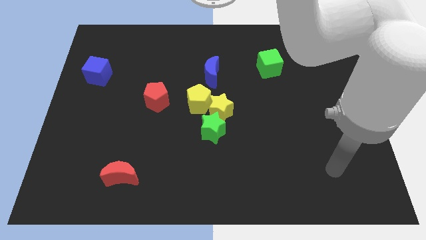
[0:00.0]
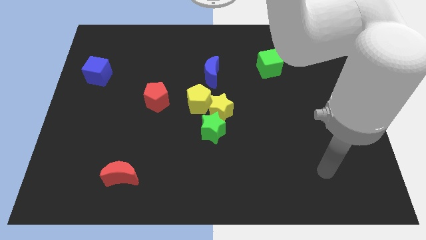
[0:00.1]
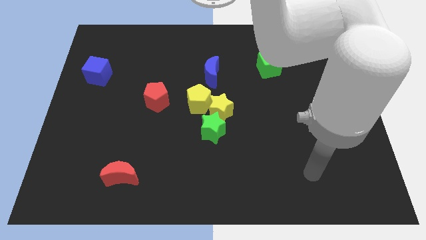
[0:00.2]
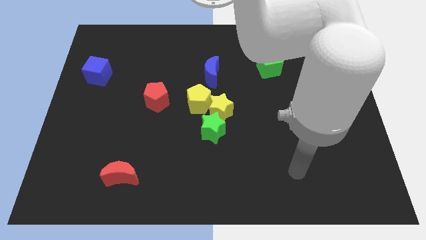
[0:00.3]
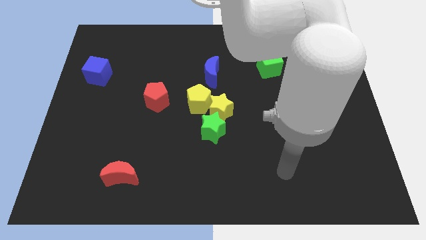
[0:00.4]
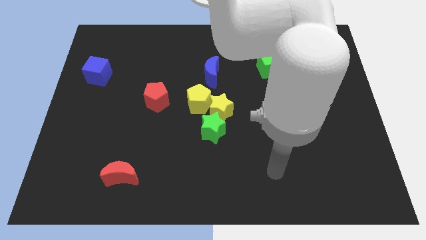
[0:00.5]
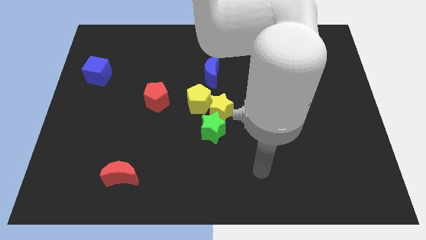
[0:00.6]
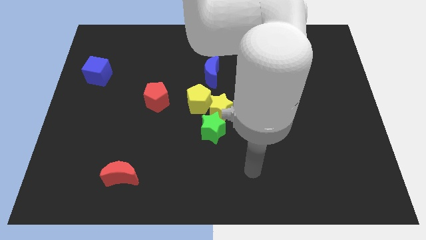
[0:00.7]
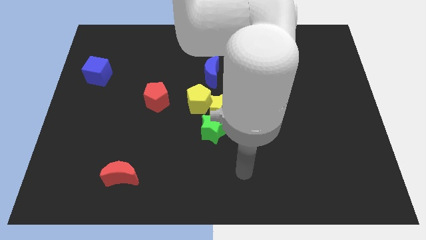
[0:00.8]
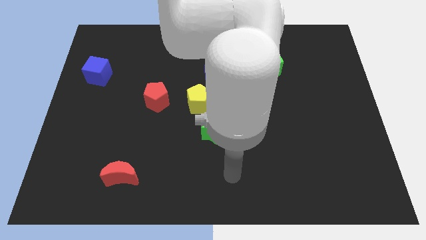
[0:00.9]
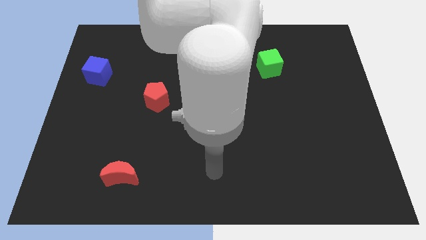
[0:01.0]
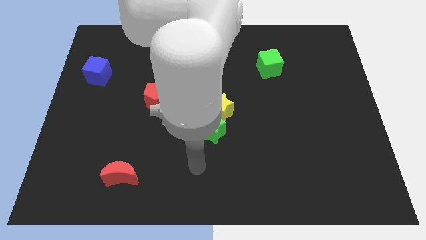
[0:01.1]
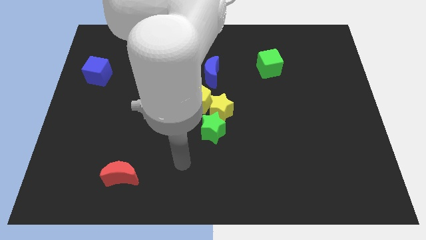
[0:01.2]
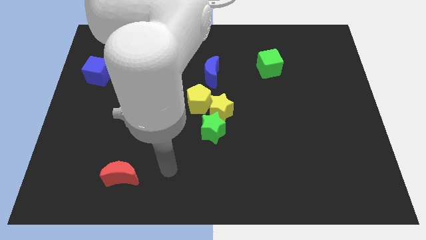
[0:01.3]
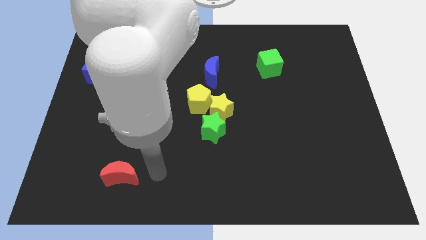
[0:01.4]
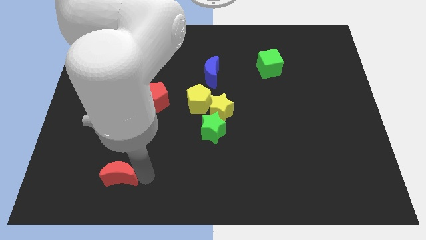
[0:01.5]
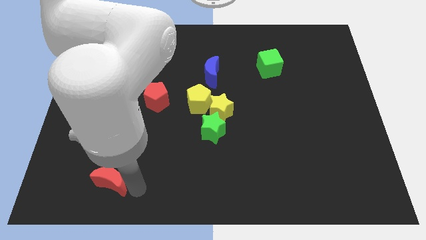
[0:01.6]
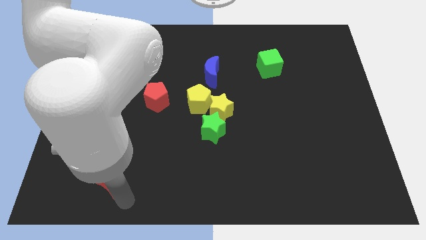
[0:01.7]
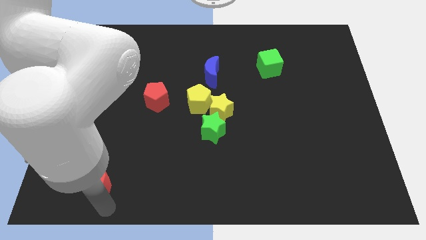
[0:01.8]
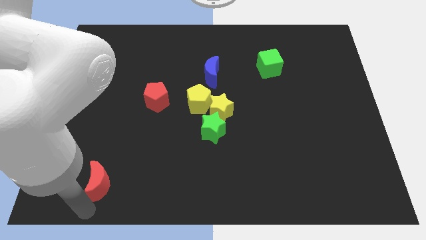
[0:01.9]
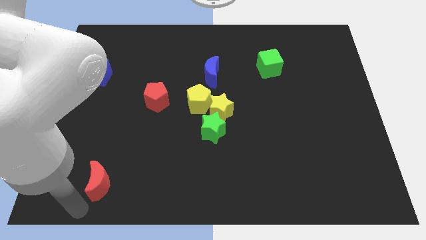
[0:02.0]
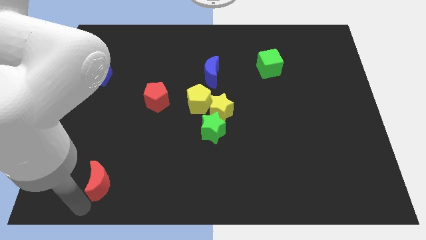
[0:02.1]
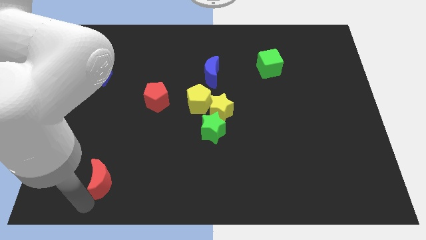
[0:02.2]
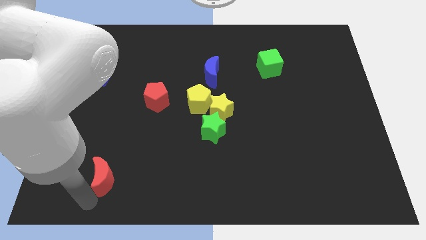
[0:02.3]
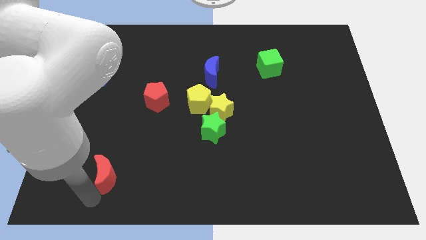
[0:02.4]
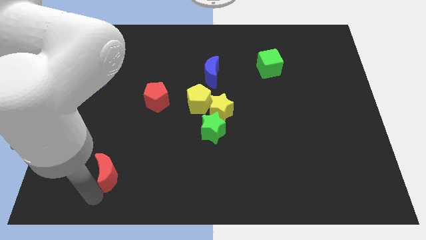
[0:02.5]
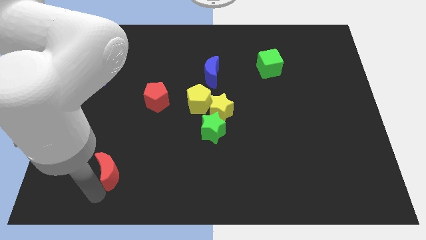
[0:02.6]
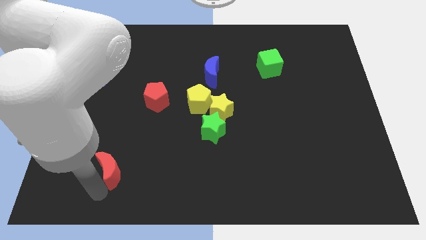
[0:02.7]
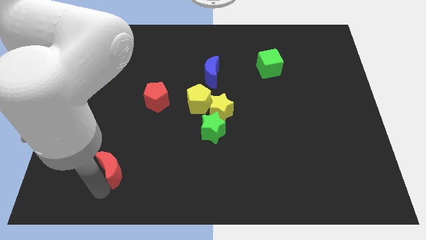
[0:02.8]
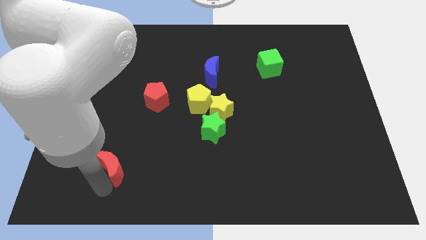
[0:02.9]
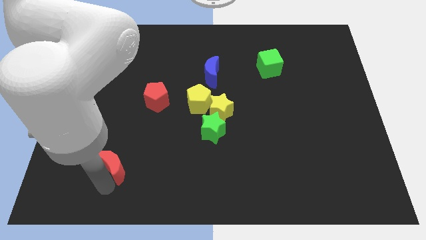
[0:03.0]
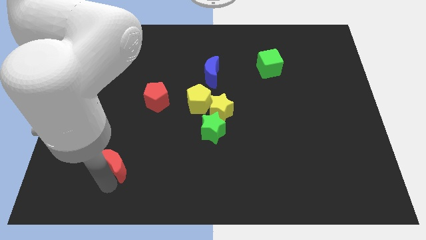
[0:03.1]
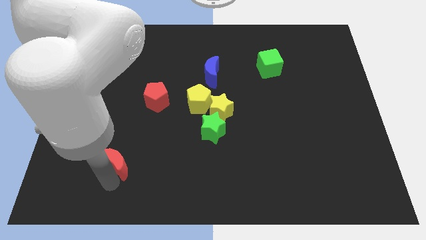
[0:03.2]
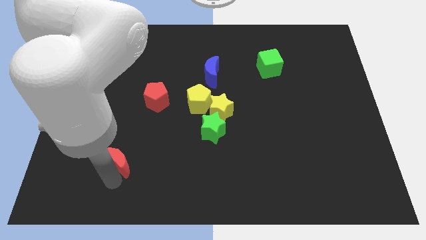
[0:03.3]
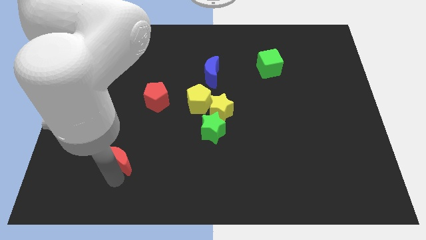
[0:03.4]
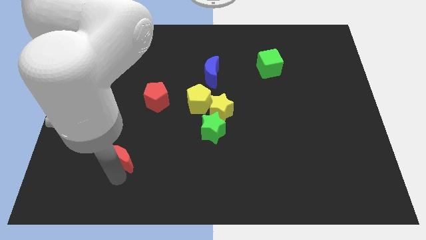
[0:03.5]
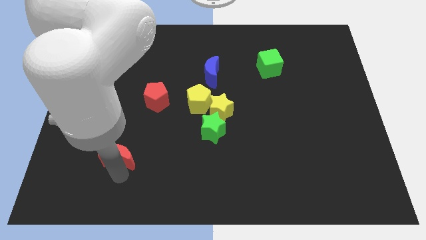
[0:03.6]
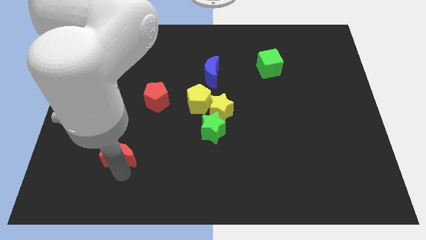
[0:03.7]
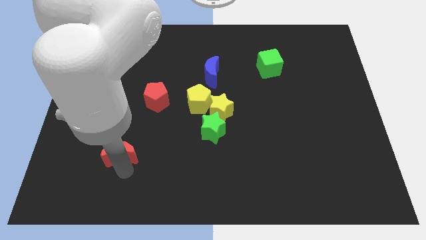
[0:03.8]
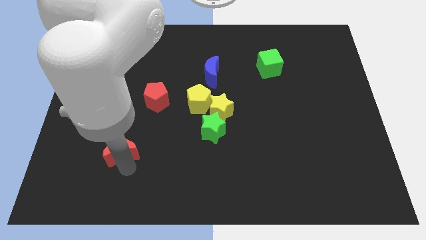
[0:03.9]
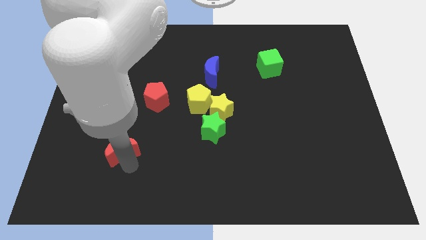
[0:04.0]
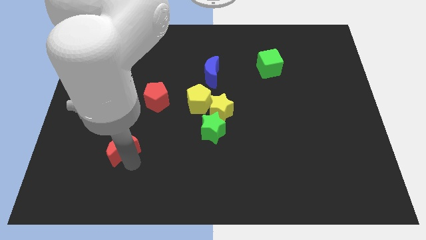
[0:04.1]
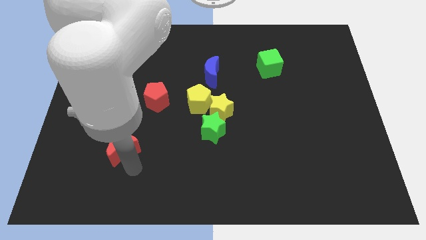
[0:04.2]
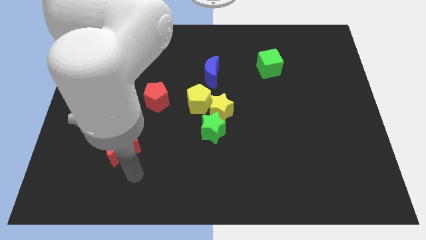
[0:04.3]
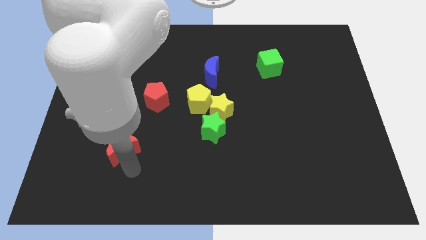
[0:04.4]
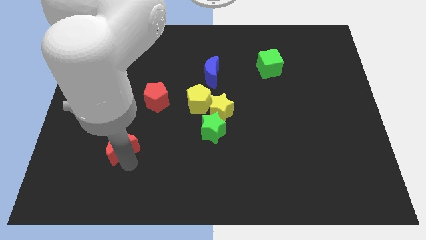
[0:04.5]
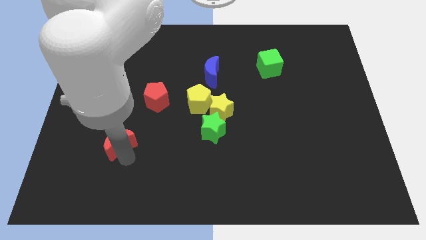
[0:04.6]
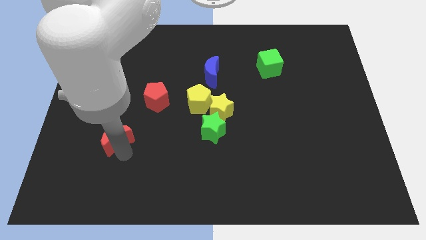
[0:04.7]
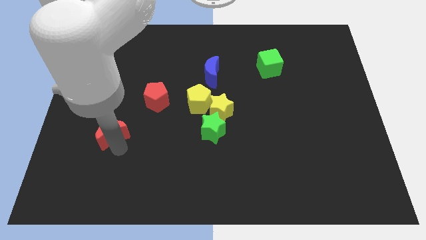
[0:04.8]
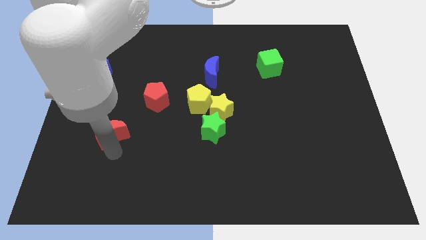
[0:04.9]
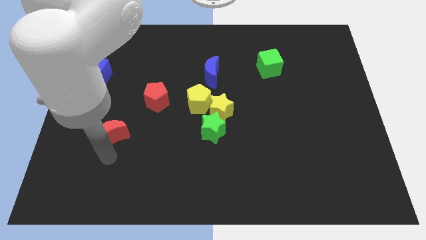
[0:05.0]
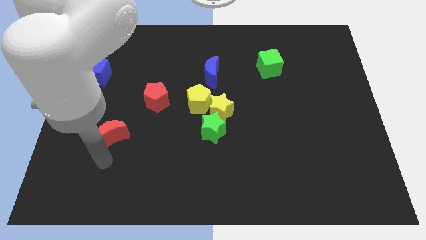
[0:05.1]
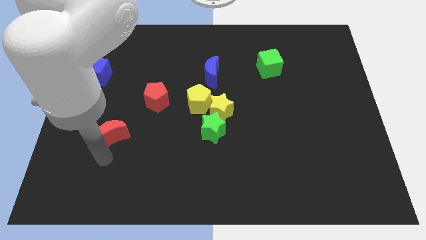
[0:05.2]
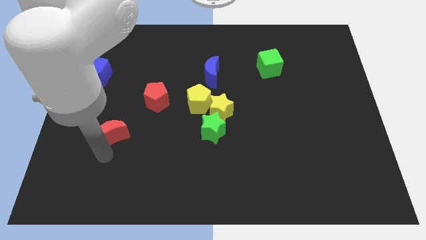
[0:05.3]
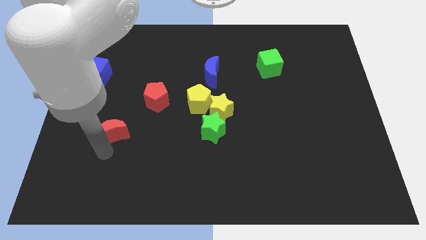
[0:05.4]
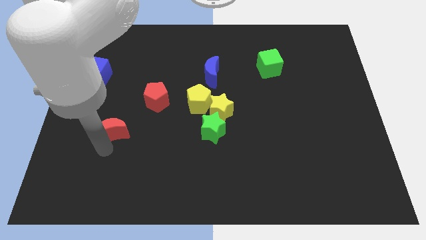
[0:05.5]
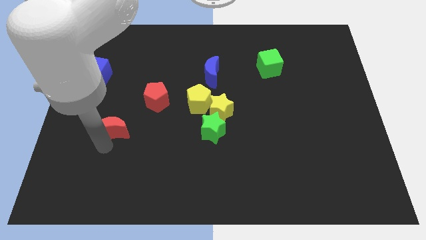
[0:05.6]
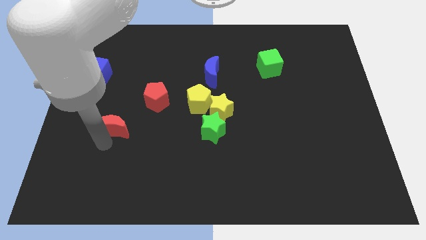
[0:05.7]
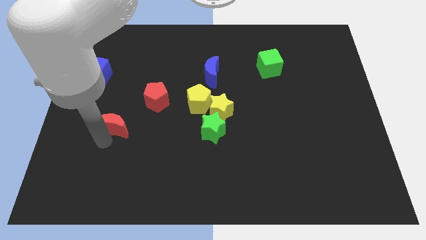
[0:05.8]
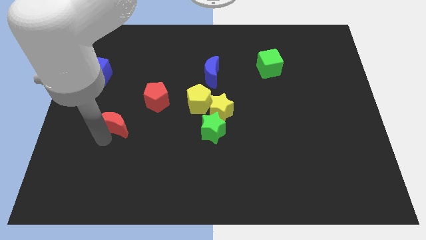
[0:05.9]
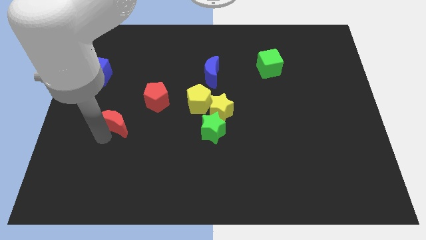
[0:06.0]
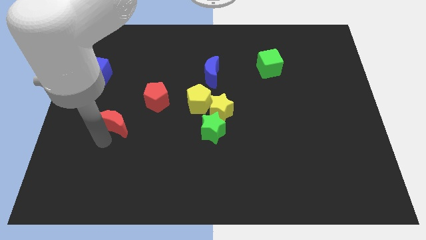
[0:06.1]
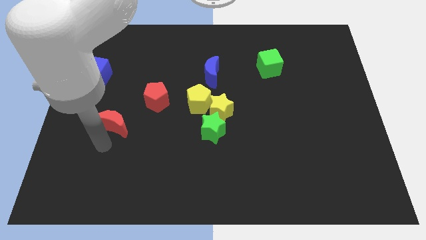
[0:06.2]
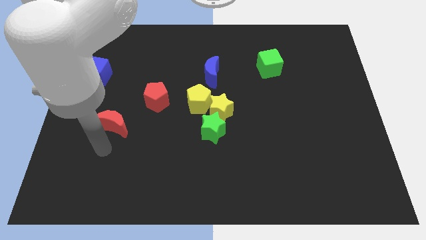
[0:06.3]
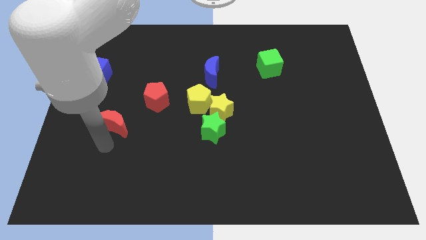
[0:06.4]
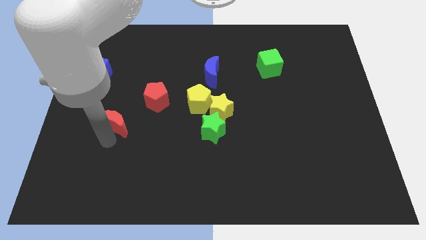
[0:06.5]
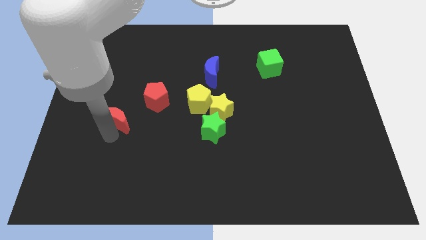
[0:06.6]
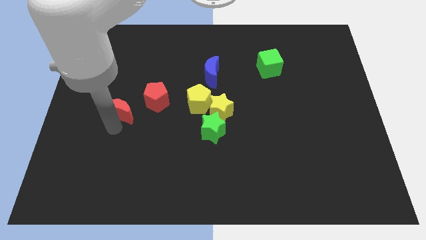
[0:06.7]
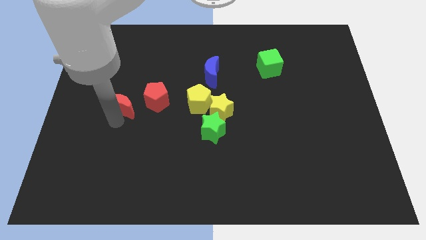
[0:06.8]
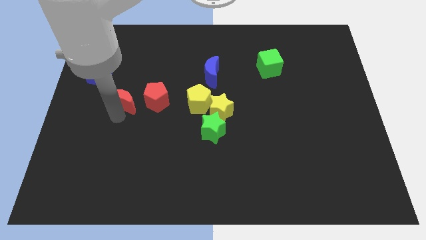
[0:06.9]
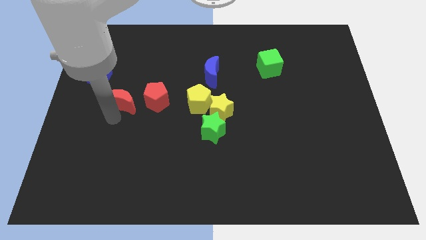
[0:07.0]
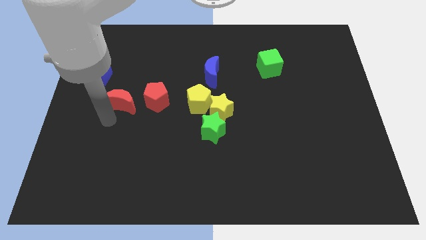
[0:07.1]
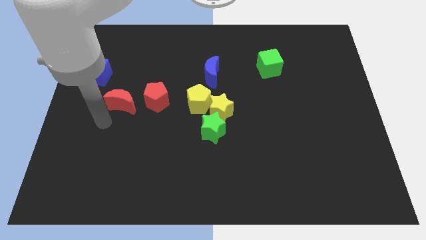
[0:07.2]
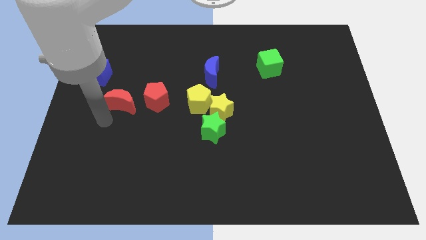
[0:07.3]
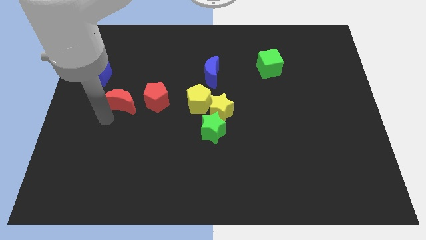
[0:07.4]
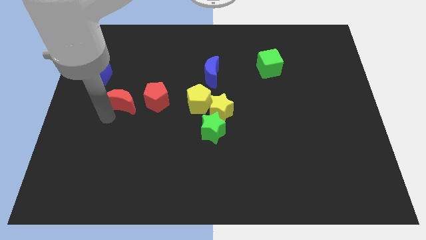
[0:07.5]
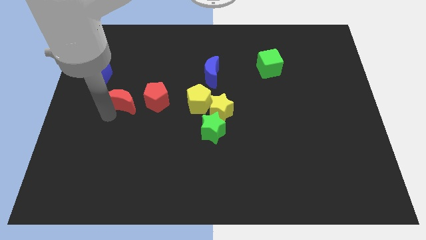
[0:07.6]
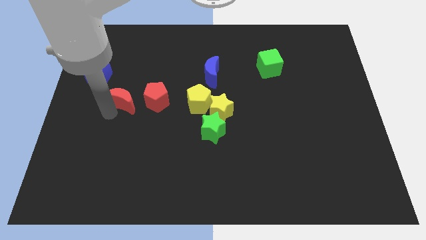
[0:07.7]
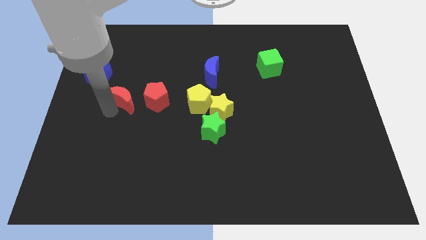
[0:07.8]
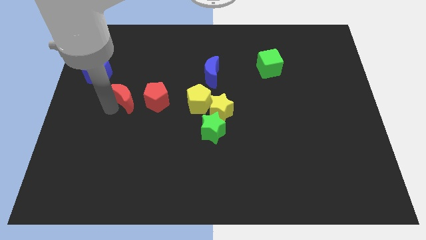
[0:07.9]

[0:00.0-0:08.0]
move the red moon upwards
